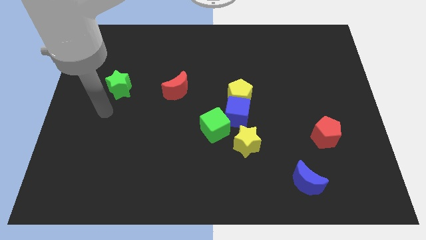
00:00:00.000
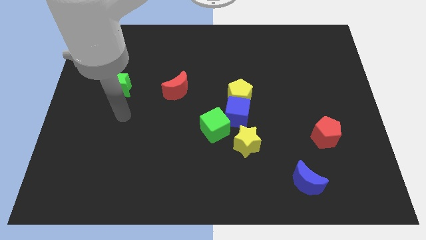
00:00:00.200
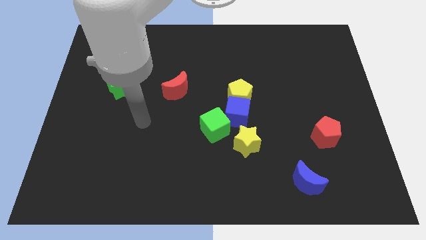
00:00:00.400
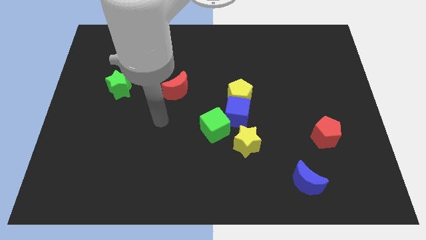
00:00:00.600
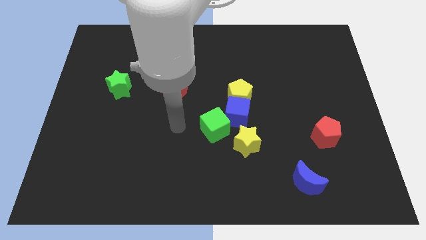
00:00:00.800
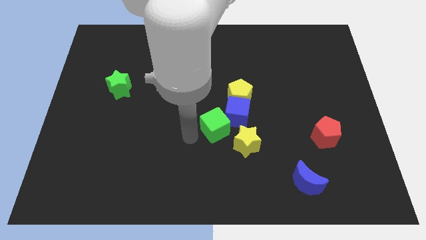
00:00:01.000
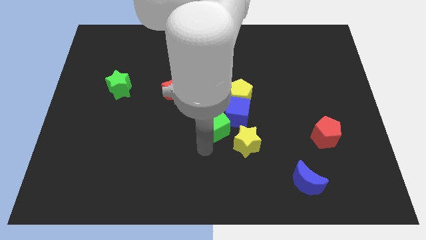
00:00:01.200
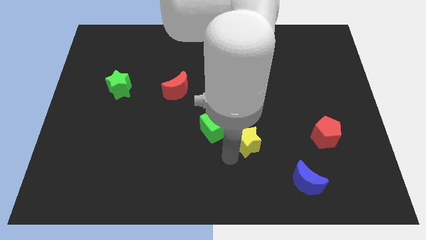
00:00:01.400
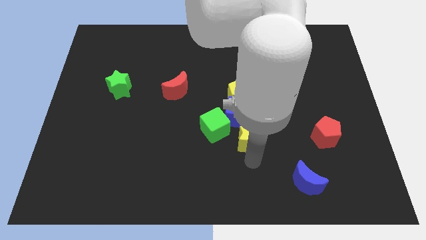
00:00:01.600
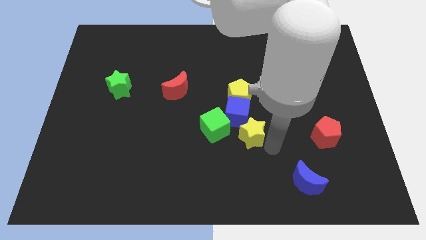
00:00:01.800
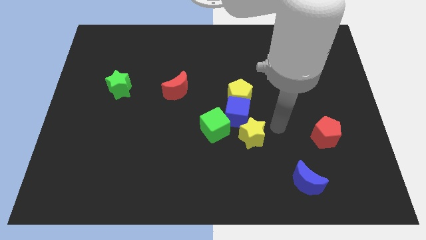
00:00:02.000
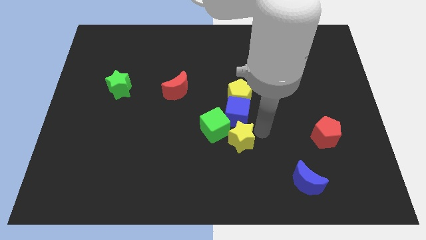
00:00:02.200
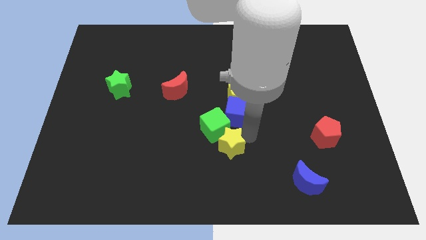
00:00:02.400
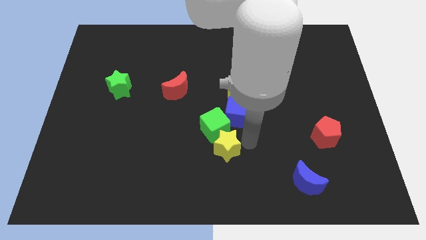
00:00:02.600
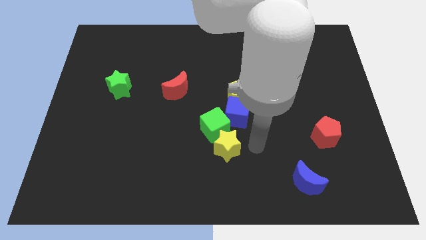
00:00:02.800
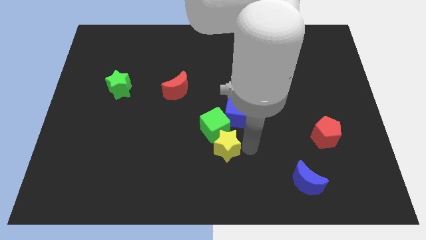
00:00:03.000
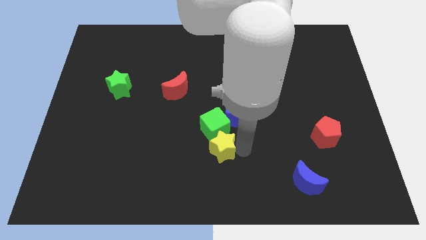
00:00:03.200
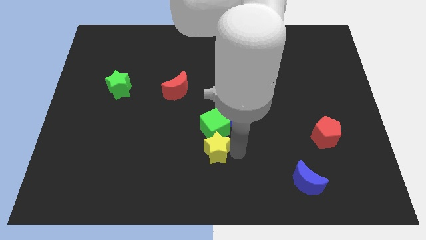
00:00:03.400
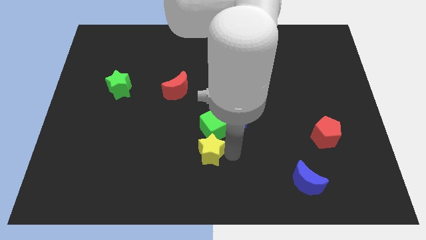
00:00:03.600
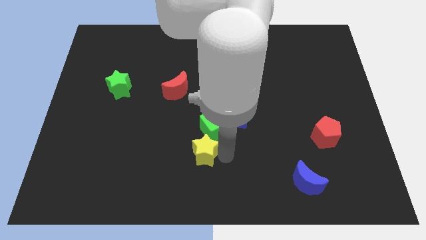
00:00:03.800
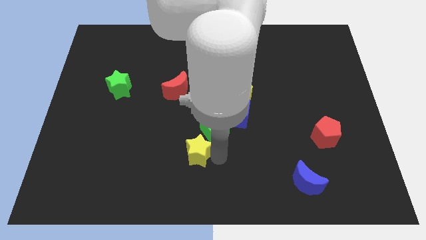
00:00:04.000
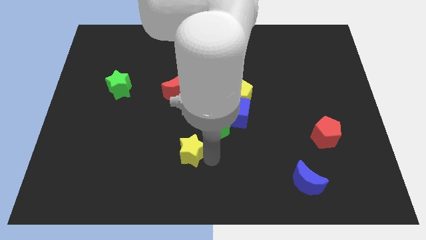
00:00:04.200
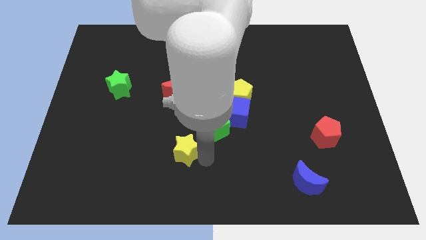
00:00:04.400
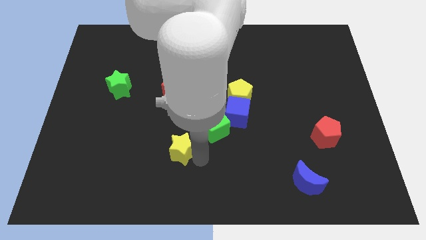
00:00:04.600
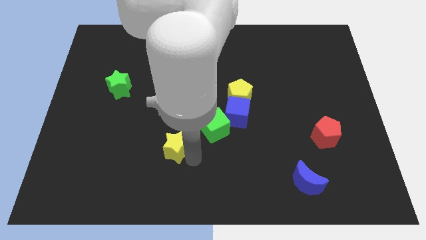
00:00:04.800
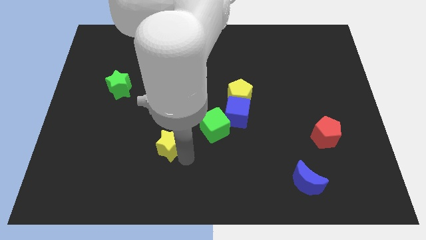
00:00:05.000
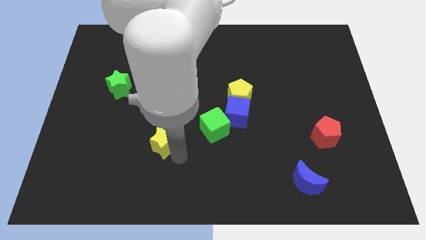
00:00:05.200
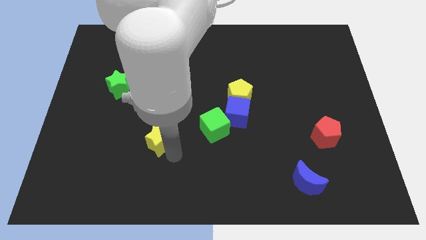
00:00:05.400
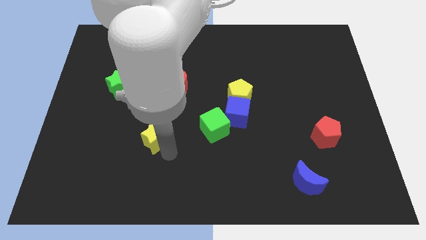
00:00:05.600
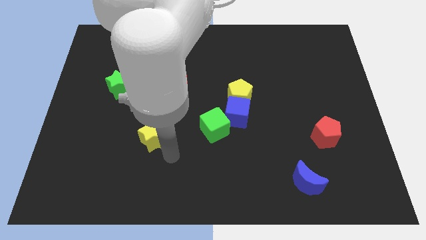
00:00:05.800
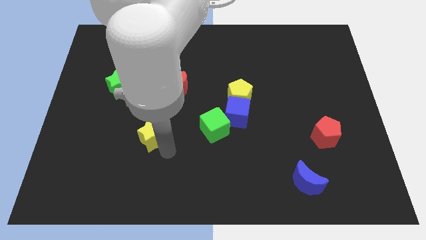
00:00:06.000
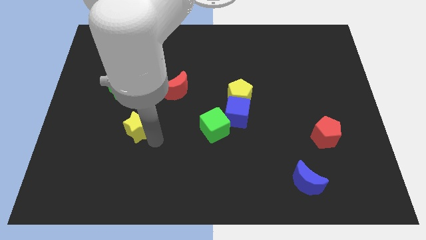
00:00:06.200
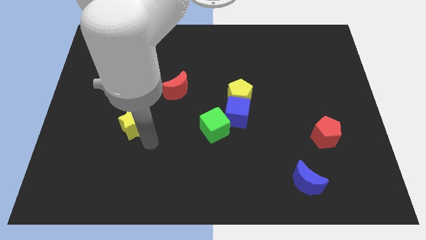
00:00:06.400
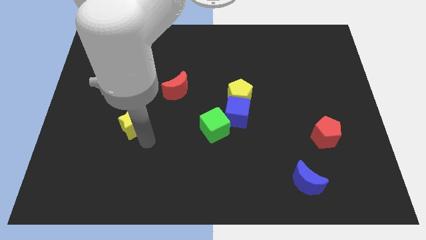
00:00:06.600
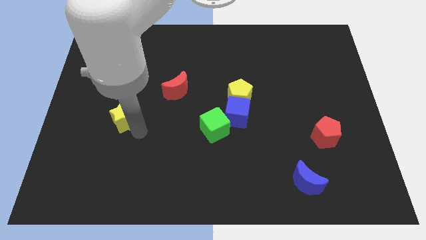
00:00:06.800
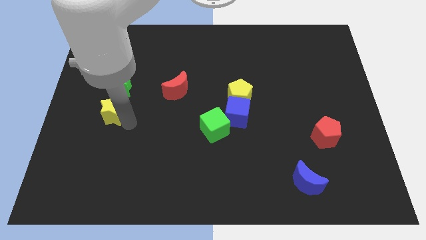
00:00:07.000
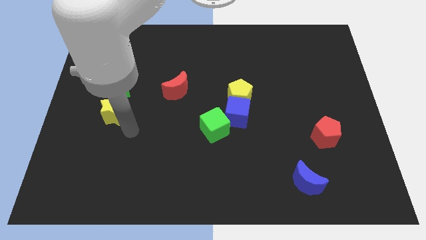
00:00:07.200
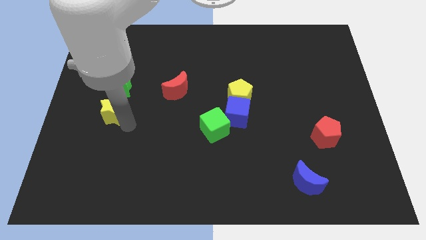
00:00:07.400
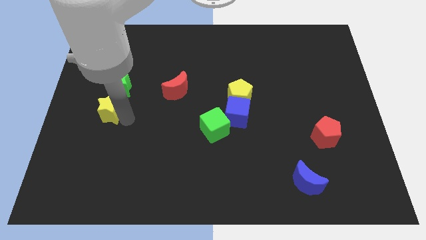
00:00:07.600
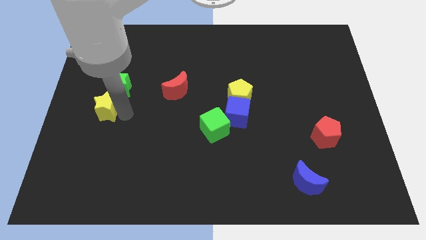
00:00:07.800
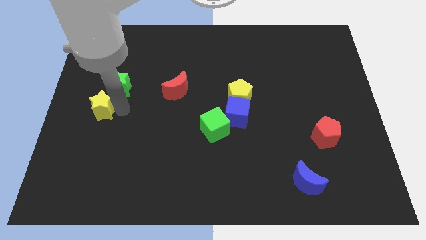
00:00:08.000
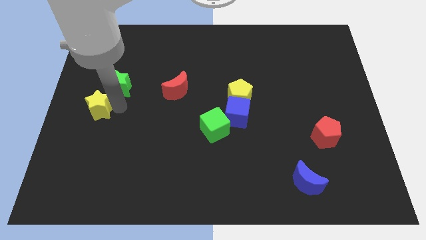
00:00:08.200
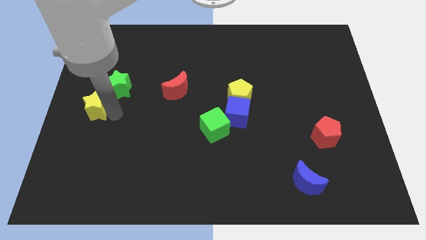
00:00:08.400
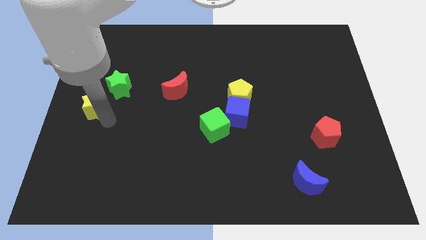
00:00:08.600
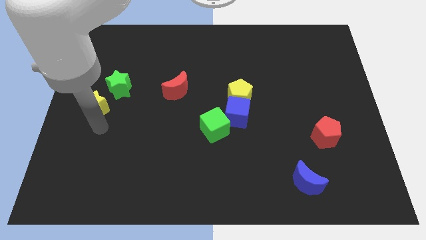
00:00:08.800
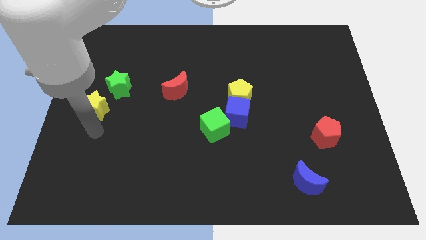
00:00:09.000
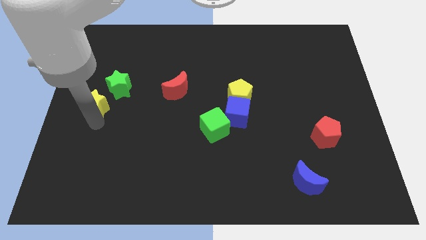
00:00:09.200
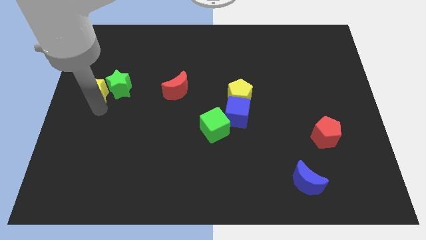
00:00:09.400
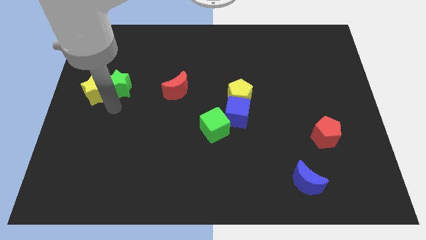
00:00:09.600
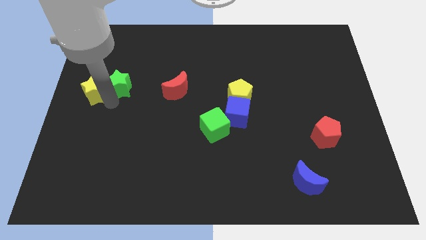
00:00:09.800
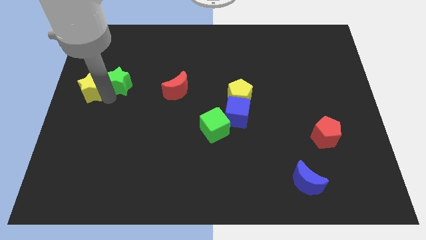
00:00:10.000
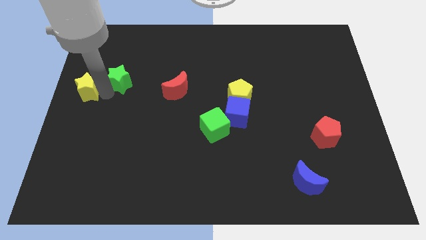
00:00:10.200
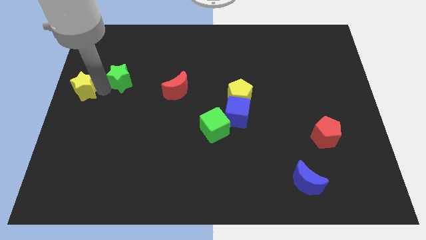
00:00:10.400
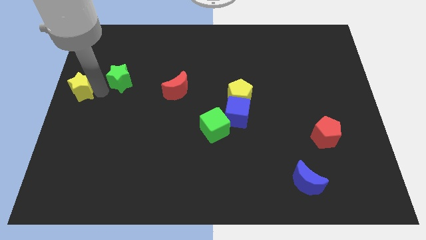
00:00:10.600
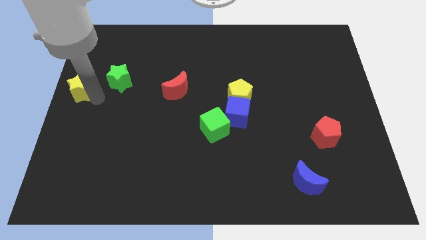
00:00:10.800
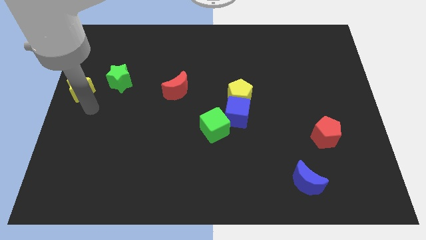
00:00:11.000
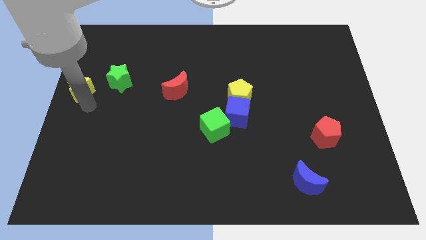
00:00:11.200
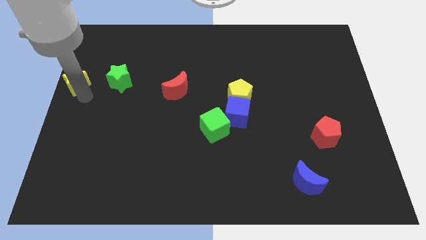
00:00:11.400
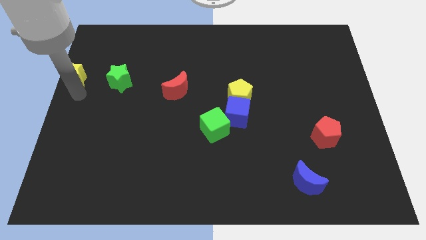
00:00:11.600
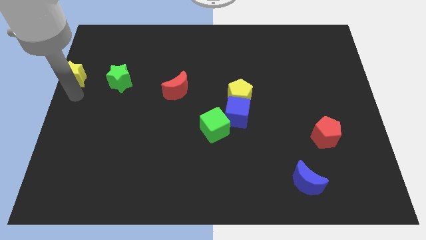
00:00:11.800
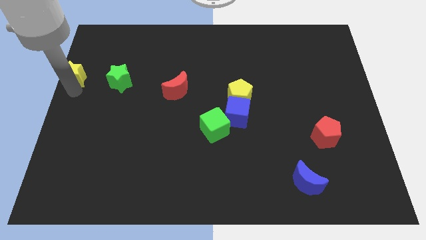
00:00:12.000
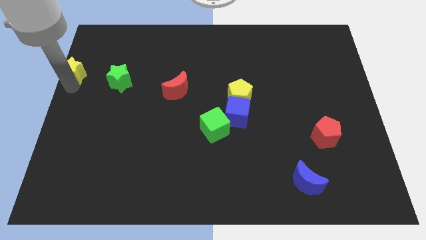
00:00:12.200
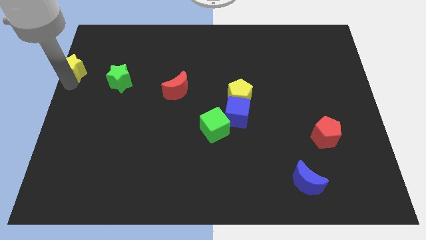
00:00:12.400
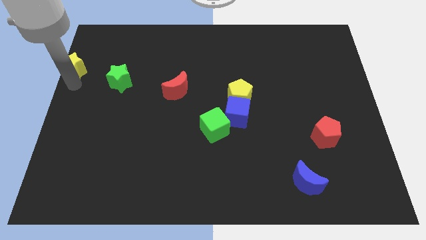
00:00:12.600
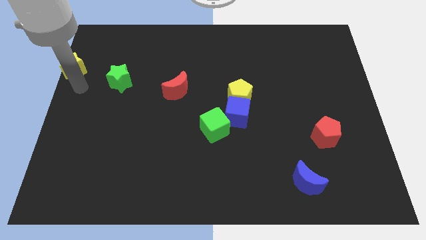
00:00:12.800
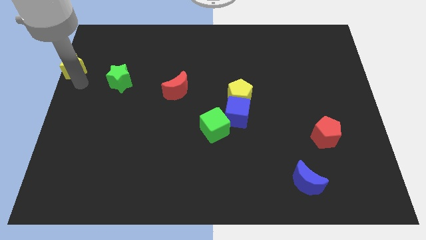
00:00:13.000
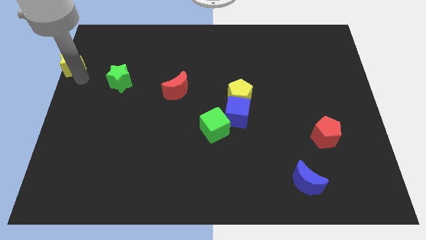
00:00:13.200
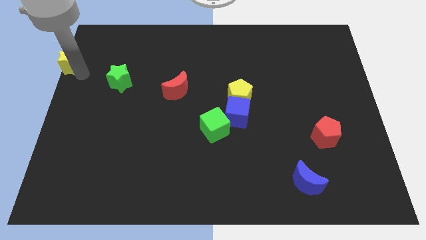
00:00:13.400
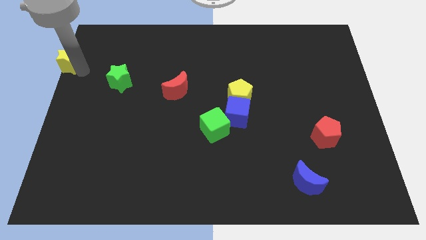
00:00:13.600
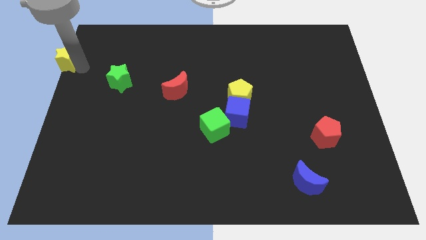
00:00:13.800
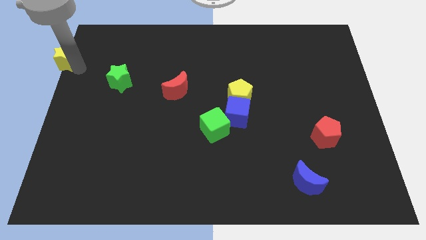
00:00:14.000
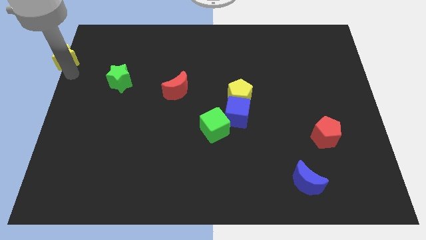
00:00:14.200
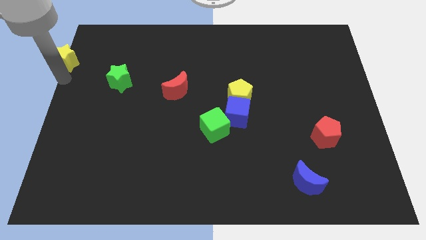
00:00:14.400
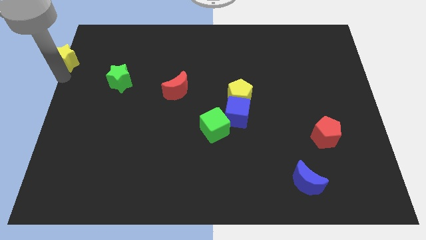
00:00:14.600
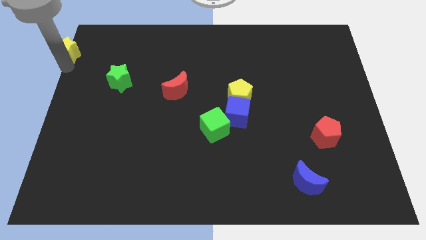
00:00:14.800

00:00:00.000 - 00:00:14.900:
move the yellow star to the upper left corner
